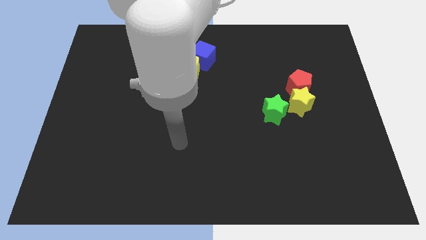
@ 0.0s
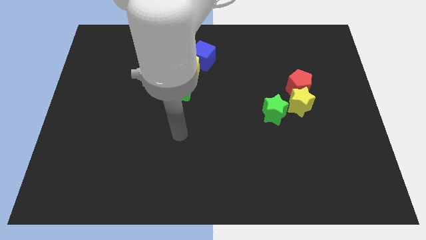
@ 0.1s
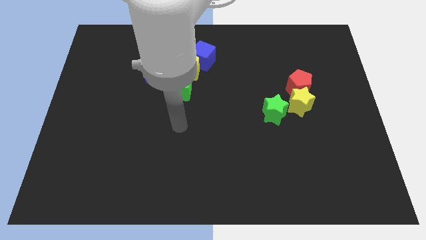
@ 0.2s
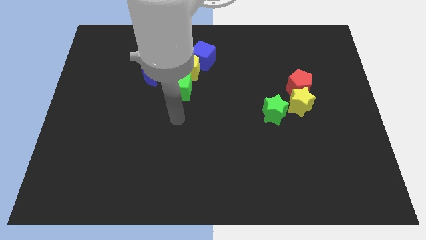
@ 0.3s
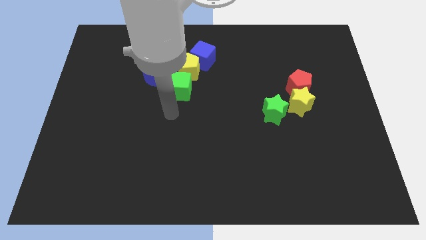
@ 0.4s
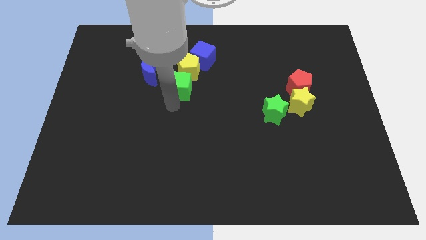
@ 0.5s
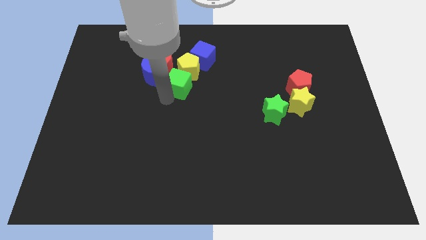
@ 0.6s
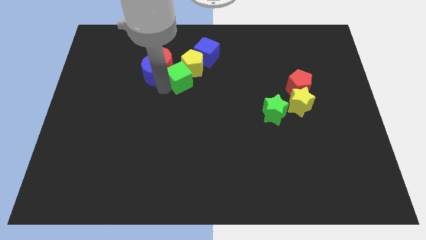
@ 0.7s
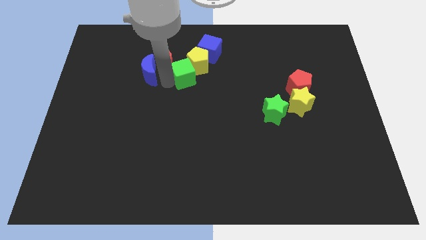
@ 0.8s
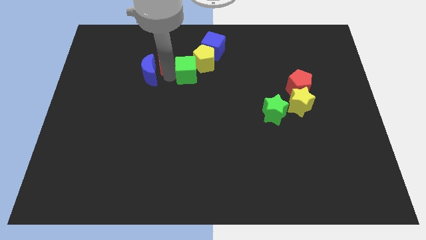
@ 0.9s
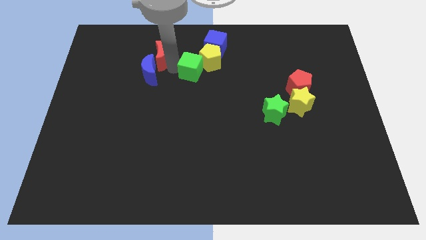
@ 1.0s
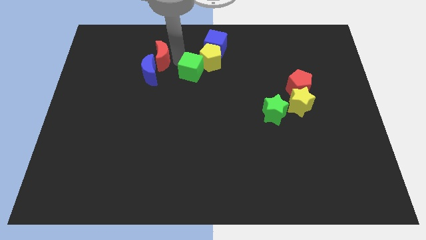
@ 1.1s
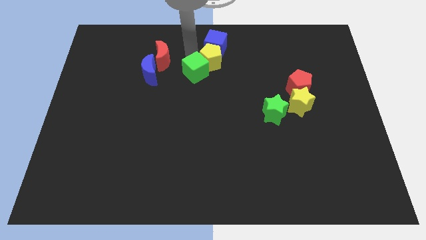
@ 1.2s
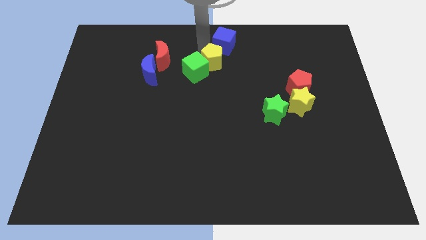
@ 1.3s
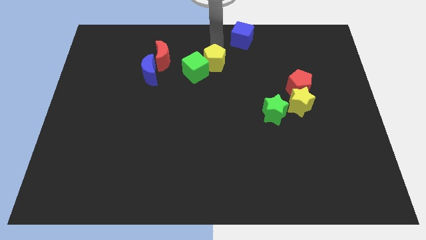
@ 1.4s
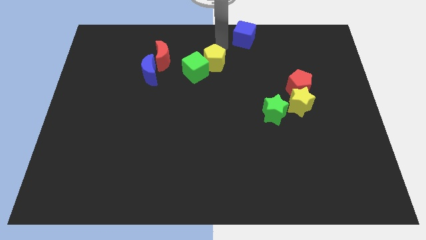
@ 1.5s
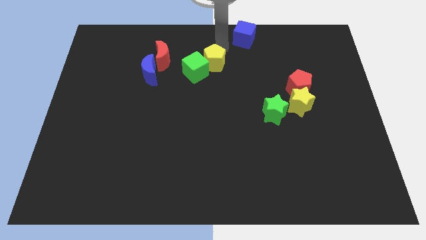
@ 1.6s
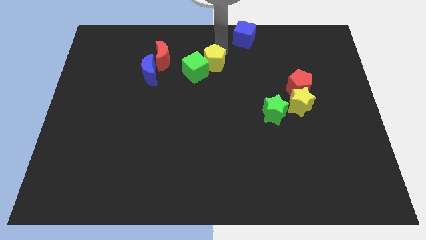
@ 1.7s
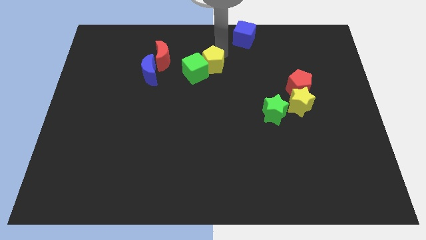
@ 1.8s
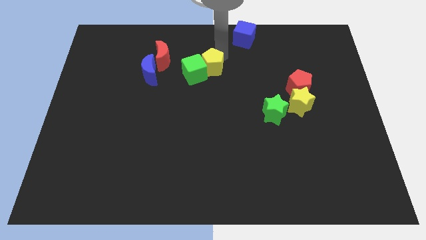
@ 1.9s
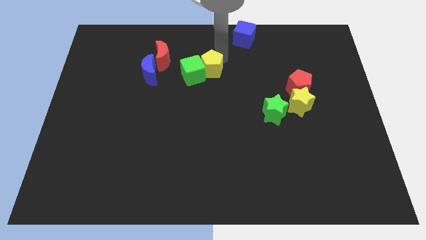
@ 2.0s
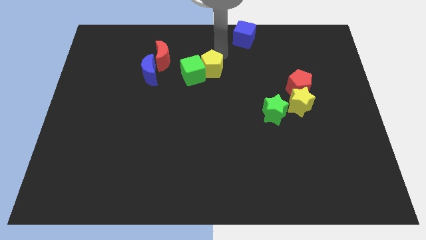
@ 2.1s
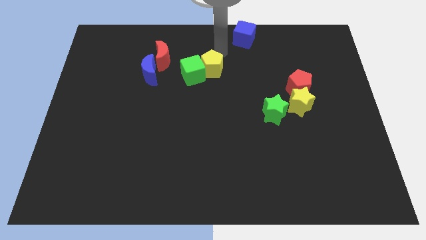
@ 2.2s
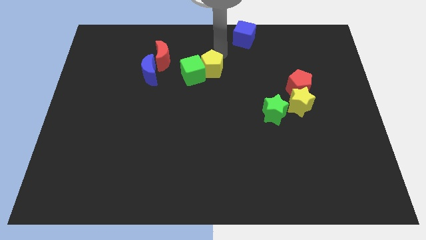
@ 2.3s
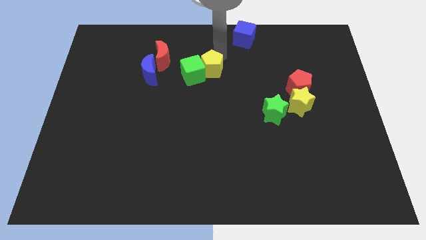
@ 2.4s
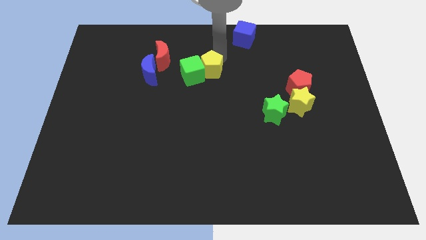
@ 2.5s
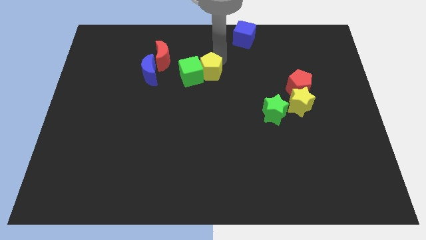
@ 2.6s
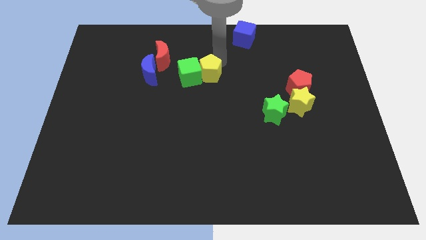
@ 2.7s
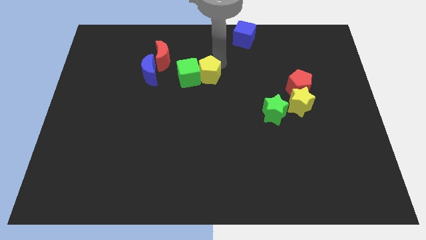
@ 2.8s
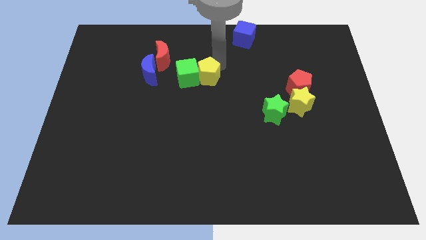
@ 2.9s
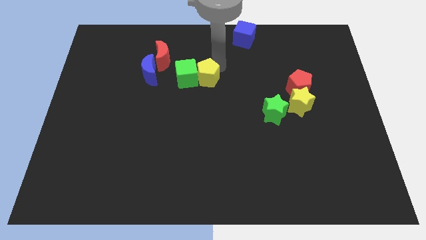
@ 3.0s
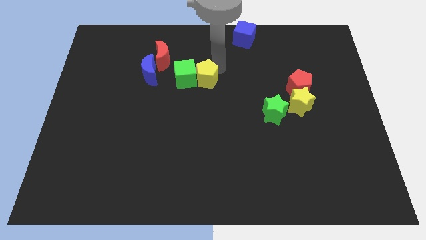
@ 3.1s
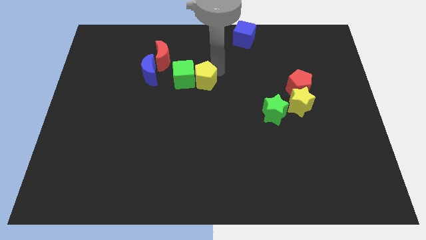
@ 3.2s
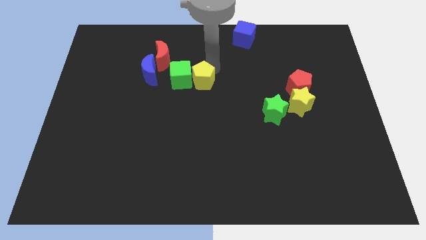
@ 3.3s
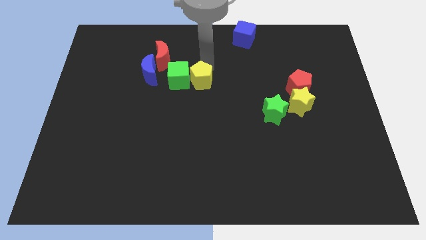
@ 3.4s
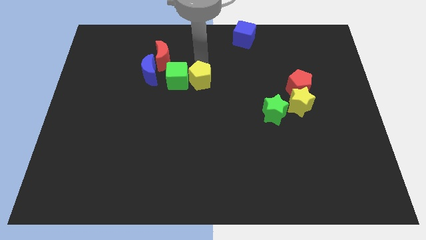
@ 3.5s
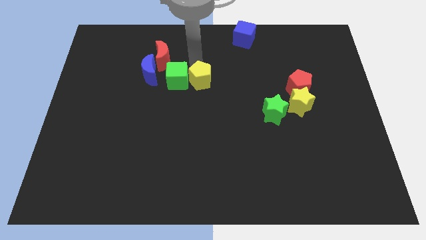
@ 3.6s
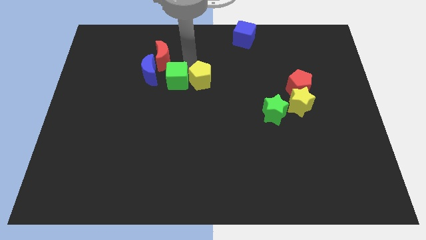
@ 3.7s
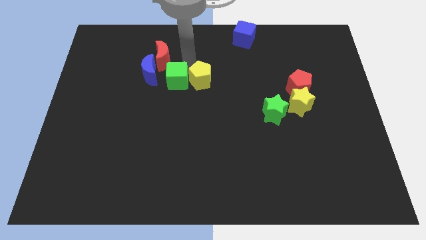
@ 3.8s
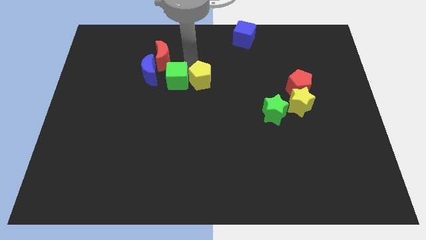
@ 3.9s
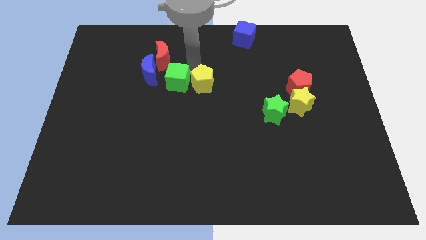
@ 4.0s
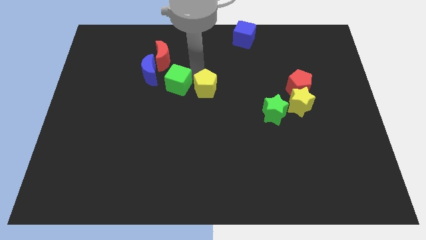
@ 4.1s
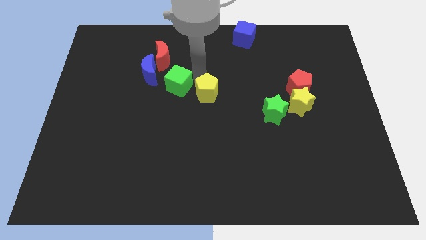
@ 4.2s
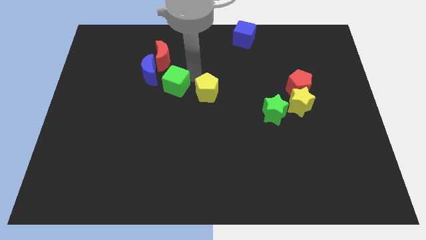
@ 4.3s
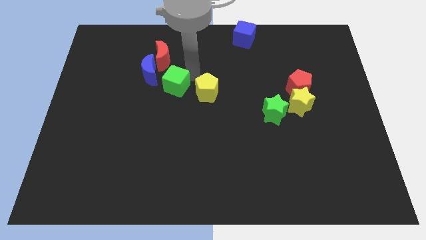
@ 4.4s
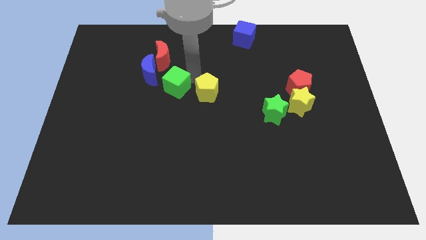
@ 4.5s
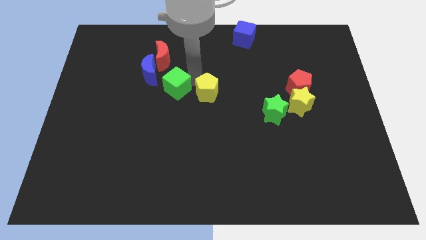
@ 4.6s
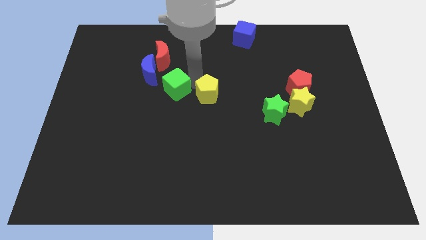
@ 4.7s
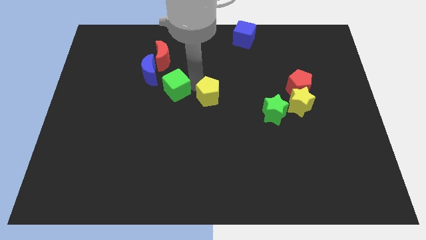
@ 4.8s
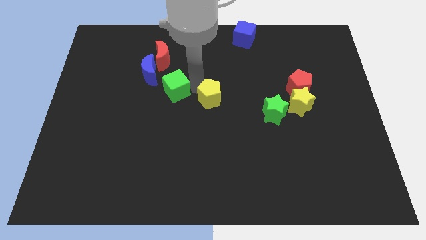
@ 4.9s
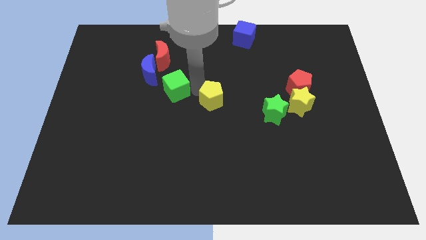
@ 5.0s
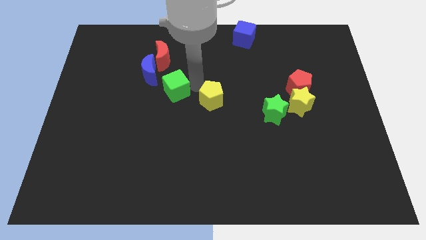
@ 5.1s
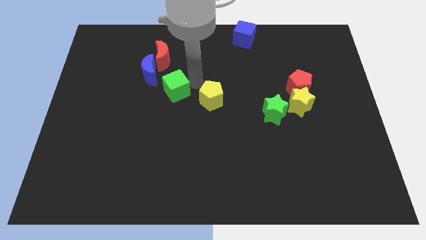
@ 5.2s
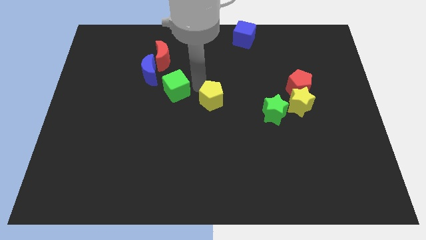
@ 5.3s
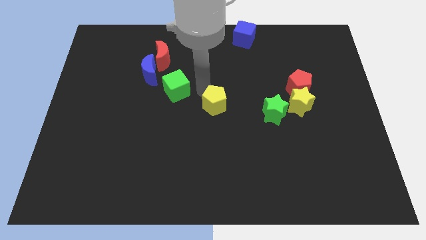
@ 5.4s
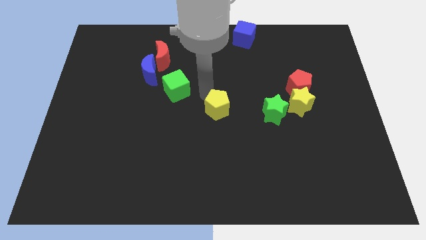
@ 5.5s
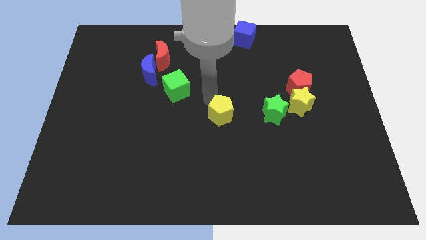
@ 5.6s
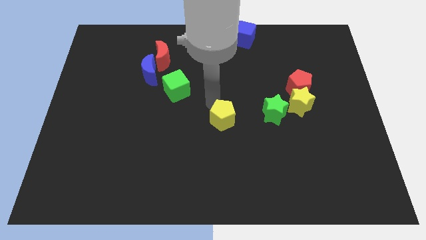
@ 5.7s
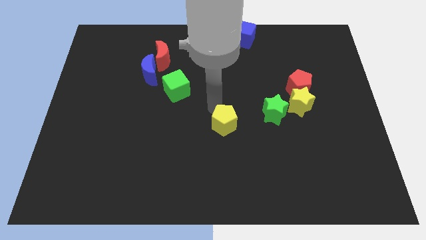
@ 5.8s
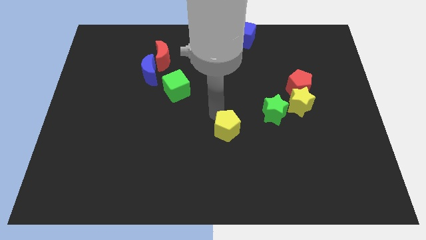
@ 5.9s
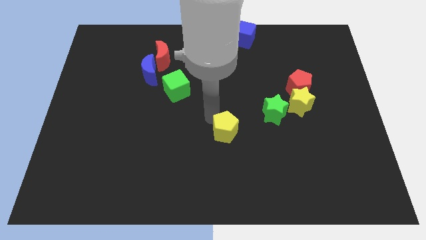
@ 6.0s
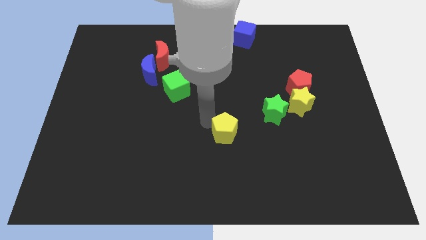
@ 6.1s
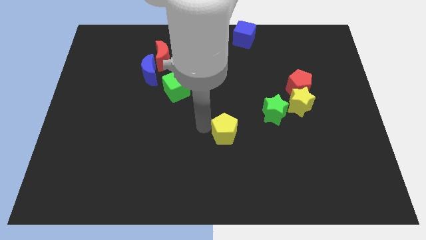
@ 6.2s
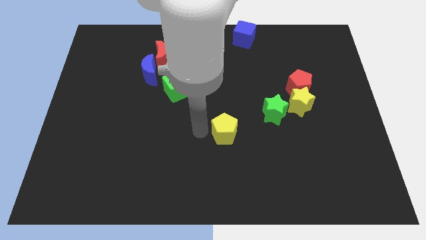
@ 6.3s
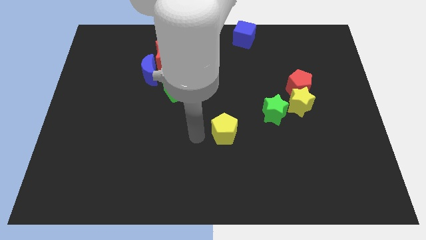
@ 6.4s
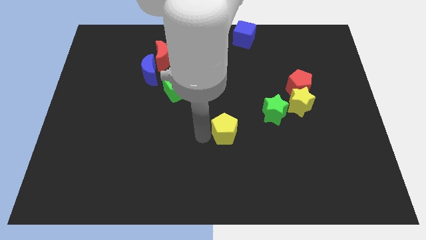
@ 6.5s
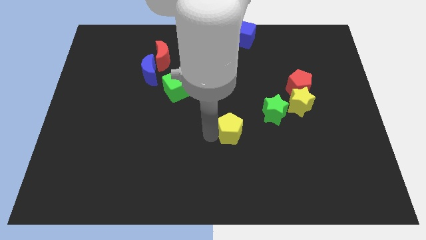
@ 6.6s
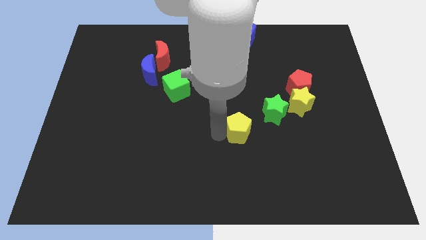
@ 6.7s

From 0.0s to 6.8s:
slide the yellow pentagon diagonally downwards and to the right

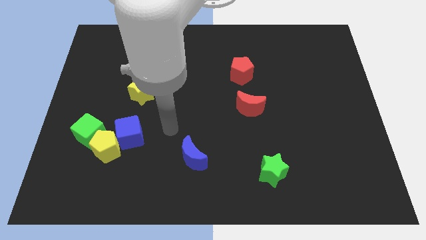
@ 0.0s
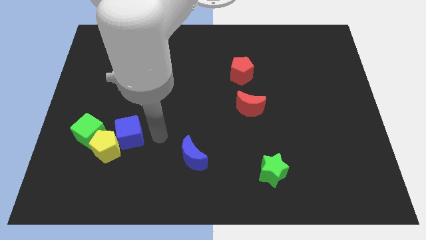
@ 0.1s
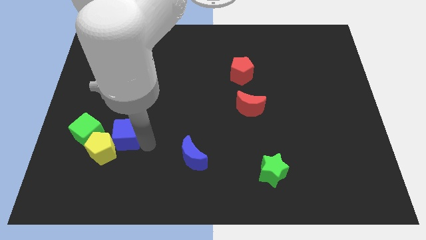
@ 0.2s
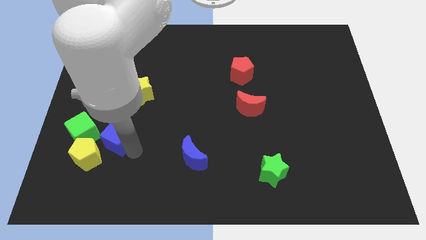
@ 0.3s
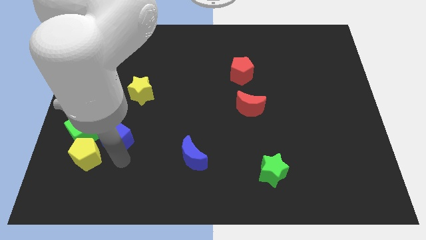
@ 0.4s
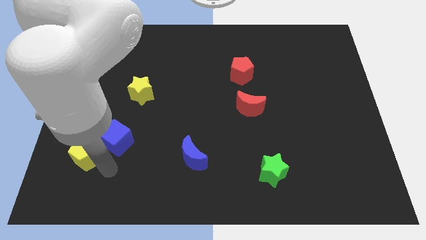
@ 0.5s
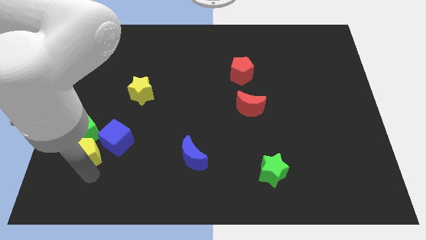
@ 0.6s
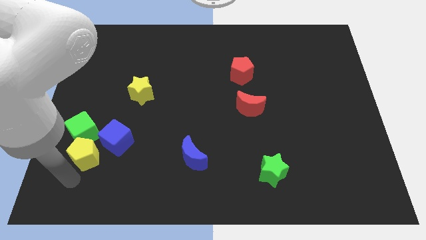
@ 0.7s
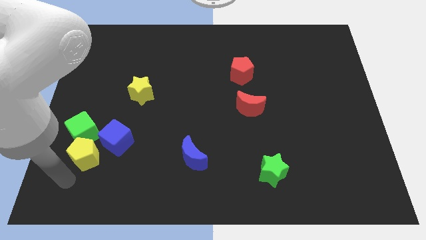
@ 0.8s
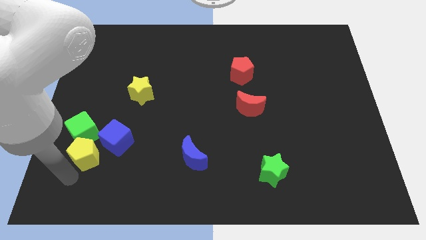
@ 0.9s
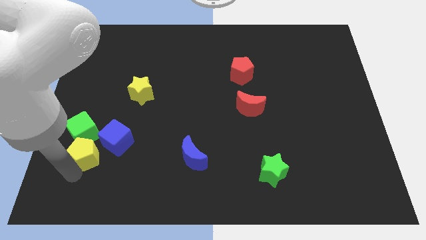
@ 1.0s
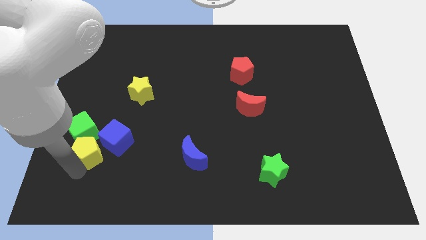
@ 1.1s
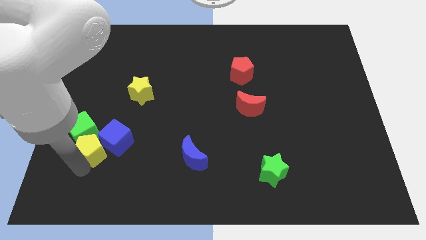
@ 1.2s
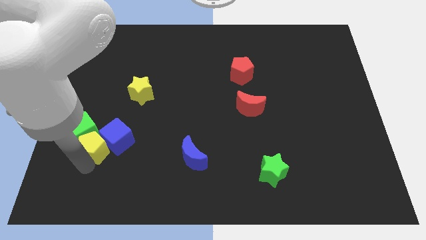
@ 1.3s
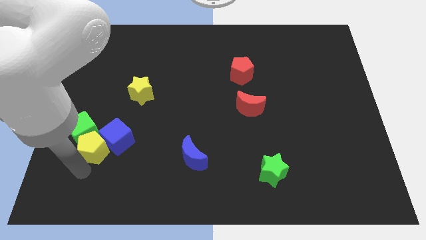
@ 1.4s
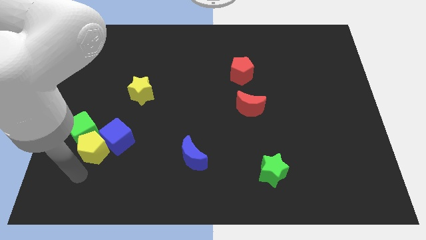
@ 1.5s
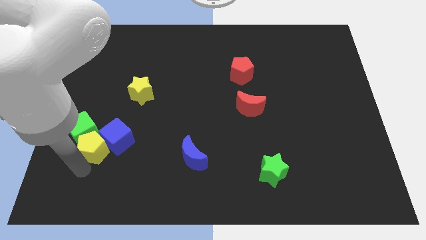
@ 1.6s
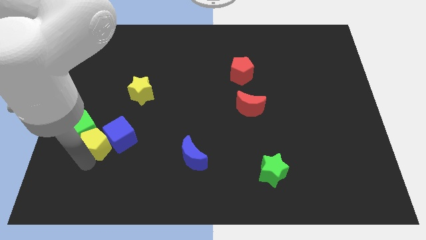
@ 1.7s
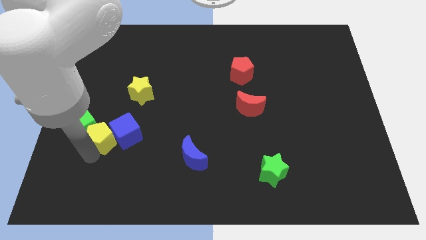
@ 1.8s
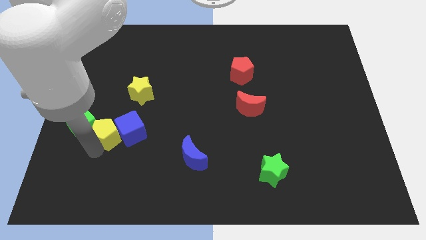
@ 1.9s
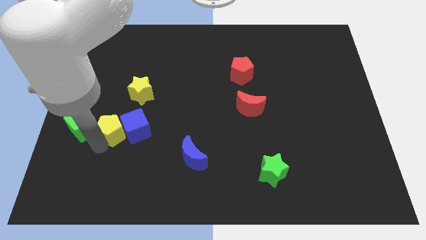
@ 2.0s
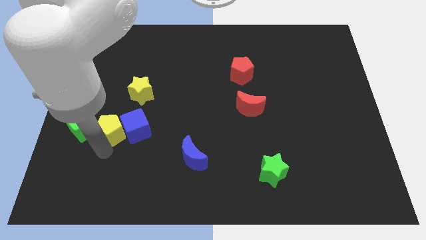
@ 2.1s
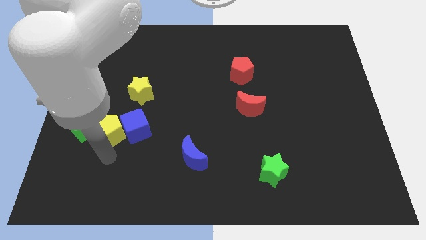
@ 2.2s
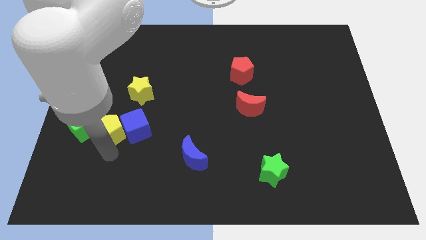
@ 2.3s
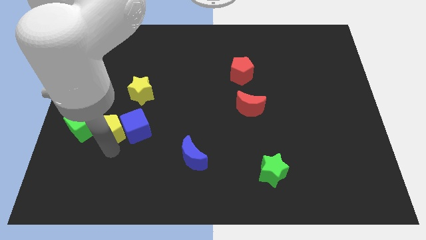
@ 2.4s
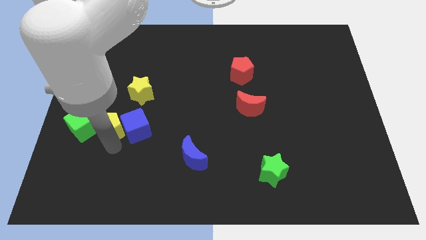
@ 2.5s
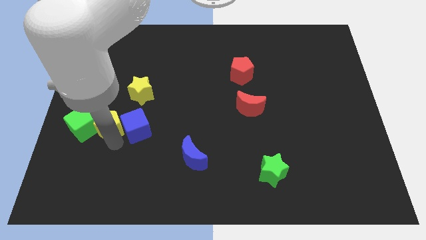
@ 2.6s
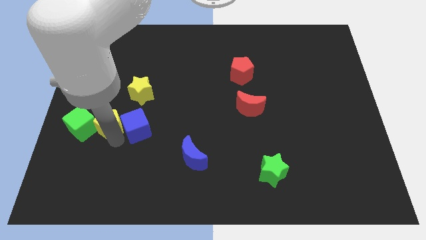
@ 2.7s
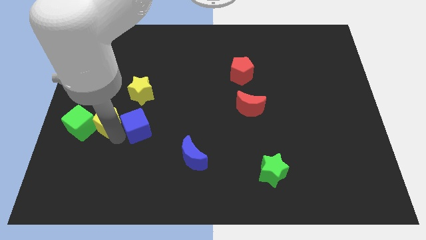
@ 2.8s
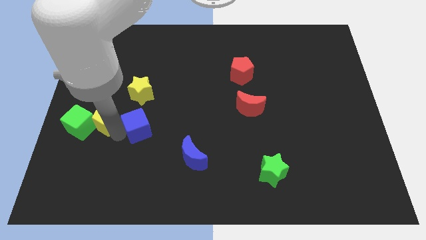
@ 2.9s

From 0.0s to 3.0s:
slightly slide the yellow pentagon up
